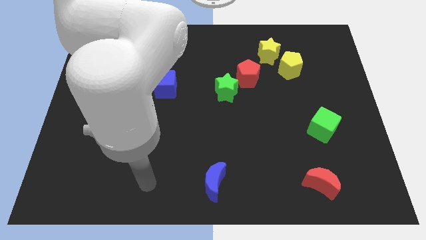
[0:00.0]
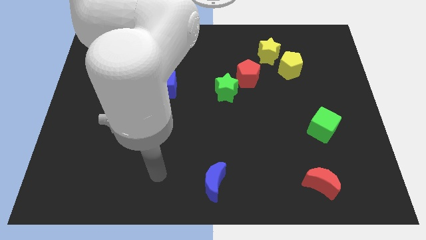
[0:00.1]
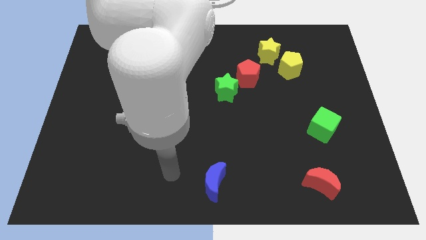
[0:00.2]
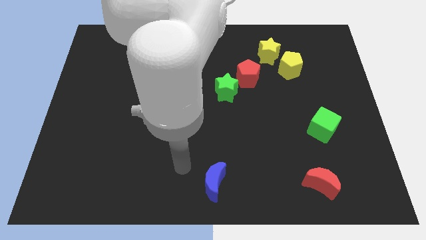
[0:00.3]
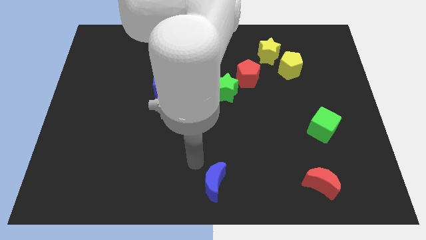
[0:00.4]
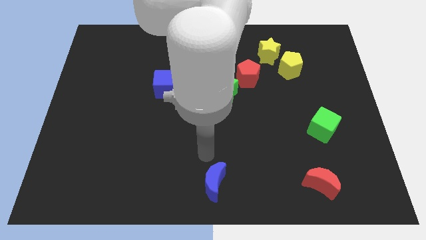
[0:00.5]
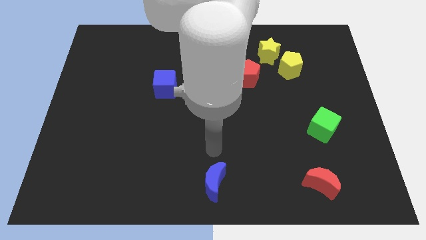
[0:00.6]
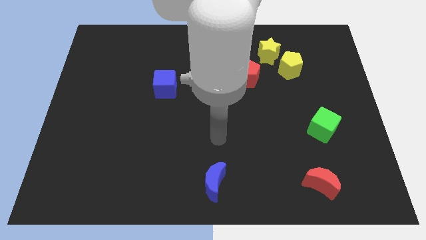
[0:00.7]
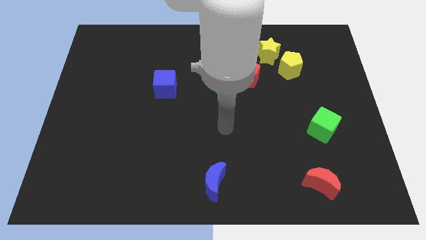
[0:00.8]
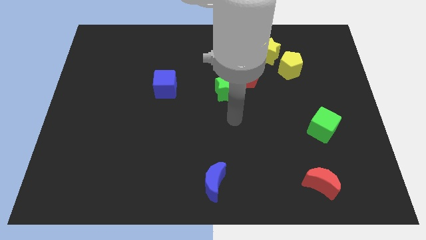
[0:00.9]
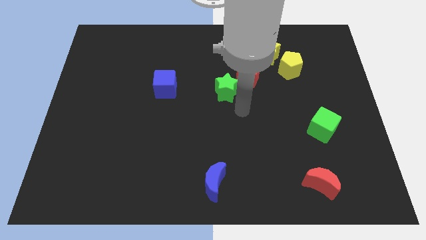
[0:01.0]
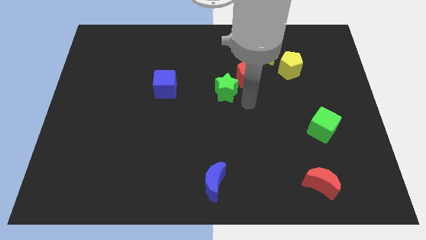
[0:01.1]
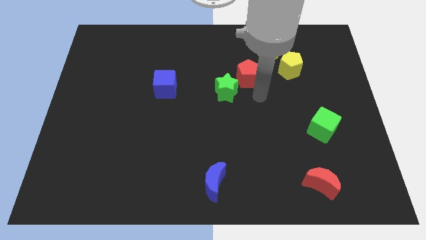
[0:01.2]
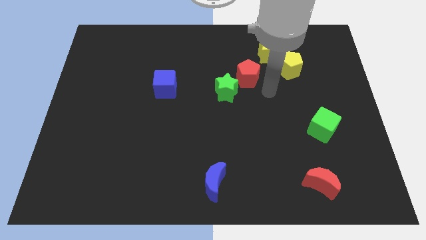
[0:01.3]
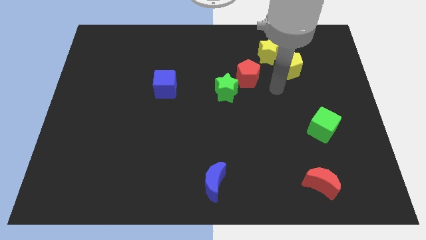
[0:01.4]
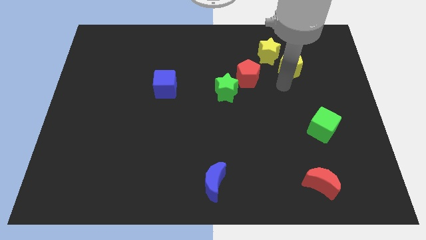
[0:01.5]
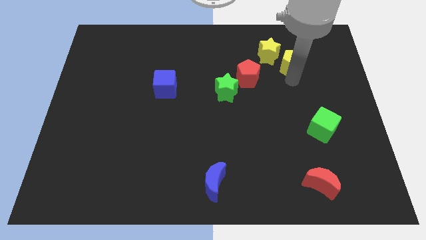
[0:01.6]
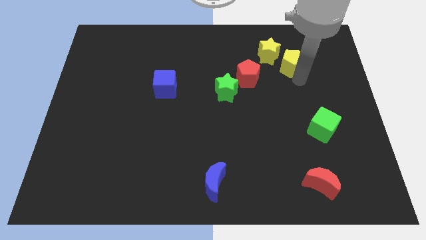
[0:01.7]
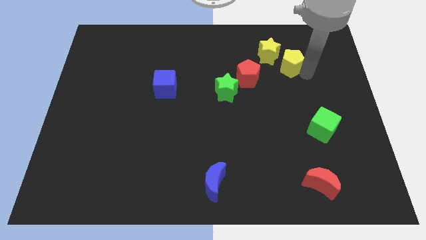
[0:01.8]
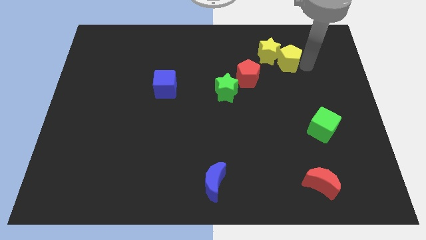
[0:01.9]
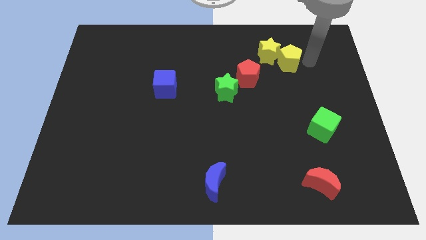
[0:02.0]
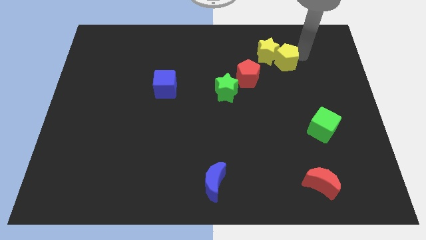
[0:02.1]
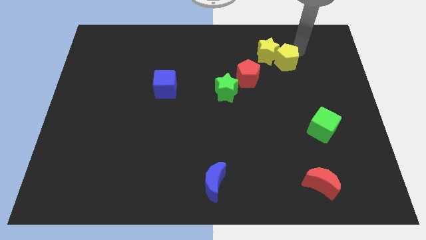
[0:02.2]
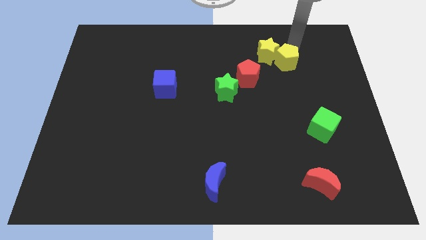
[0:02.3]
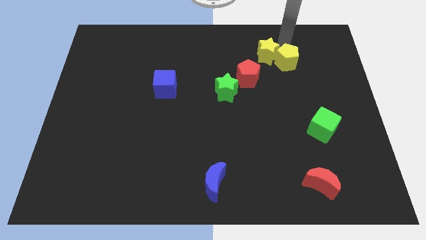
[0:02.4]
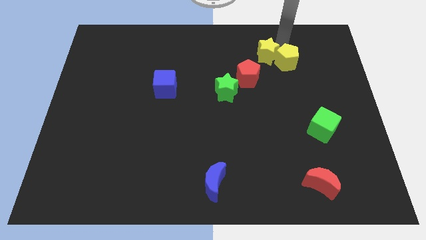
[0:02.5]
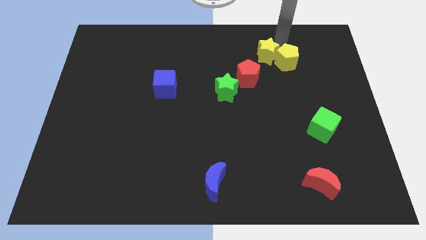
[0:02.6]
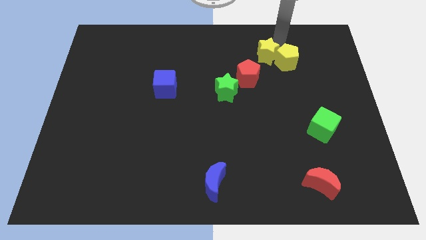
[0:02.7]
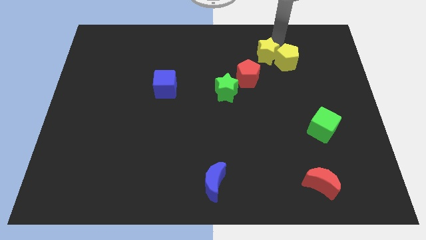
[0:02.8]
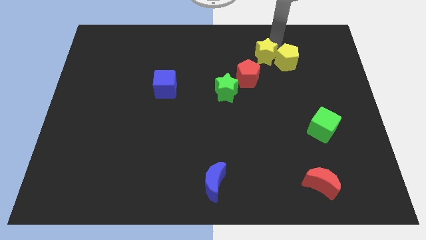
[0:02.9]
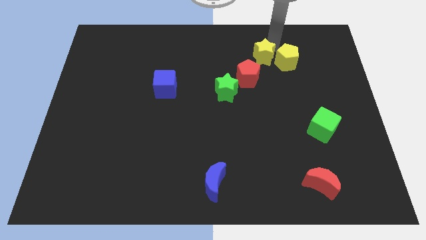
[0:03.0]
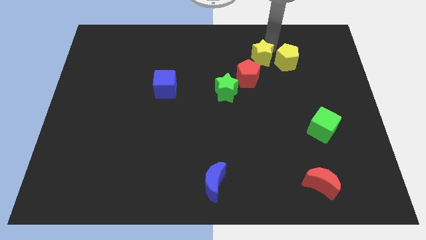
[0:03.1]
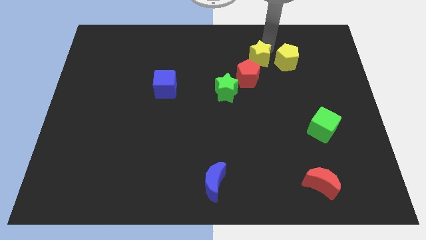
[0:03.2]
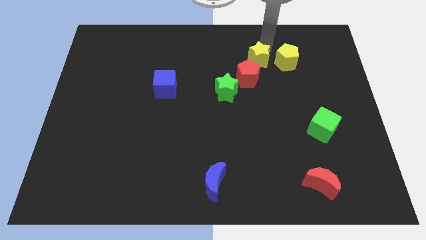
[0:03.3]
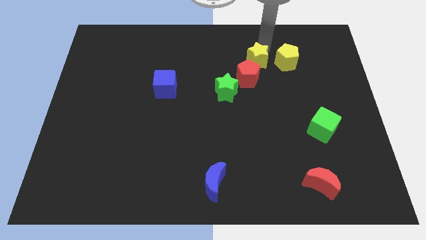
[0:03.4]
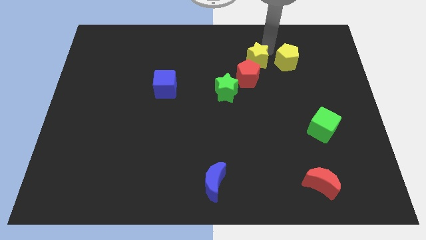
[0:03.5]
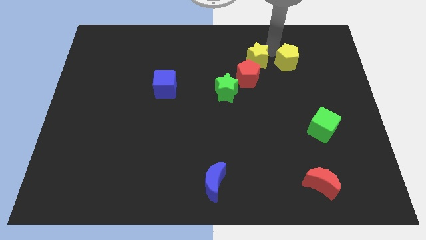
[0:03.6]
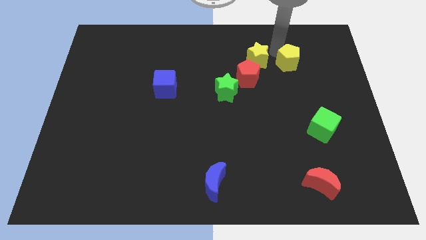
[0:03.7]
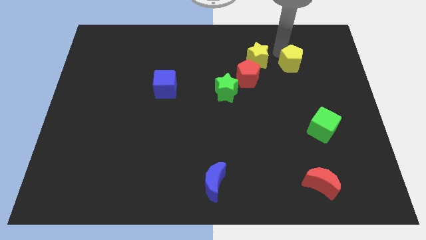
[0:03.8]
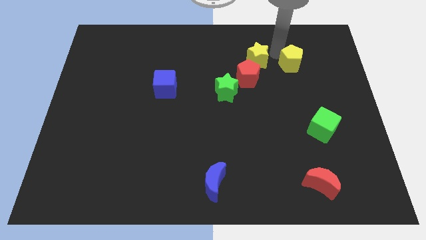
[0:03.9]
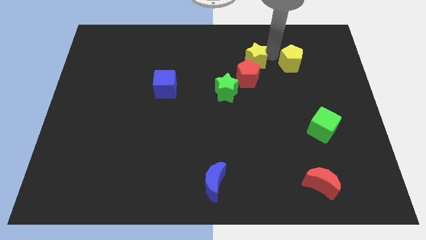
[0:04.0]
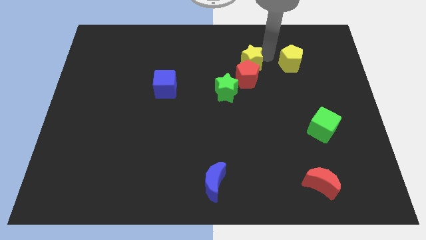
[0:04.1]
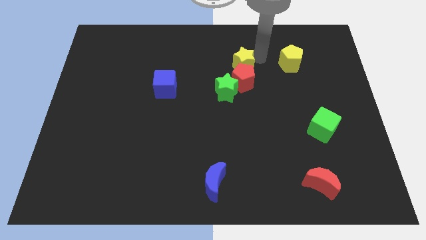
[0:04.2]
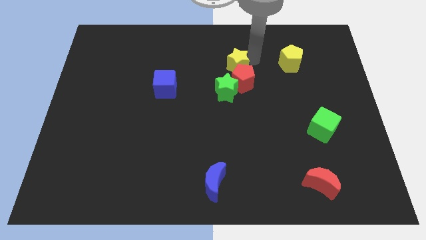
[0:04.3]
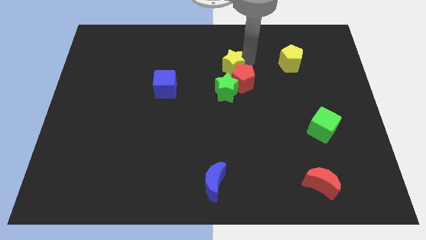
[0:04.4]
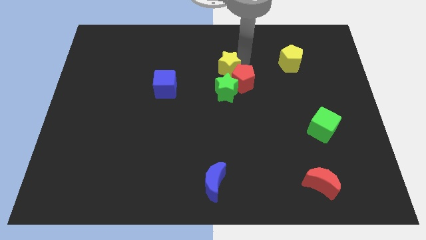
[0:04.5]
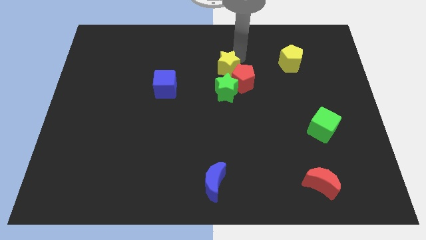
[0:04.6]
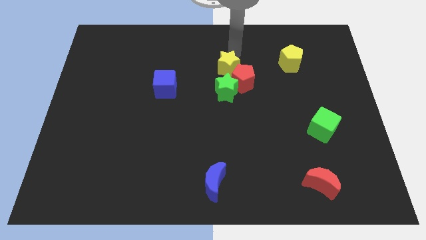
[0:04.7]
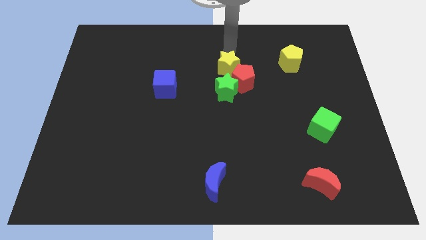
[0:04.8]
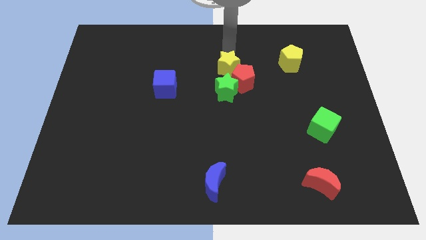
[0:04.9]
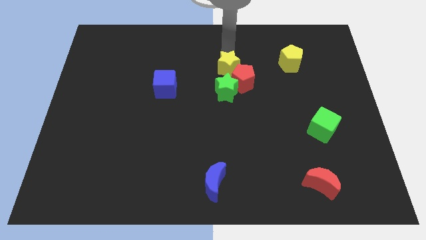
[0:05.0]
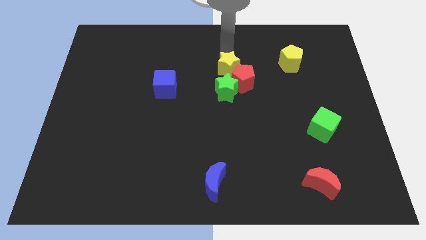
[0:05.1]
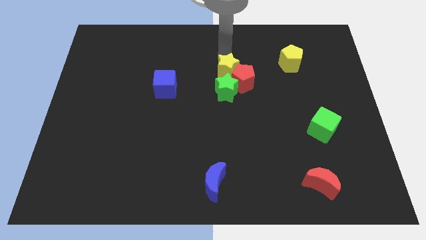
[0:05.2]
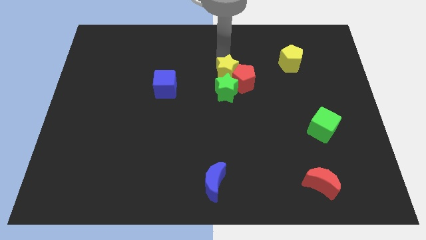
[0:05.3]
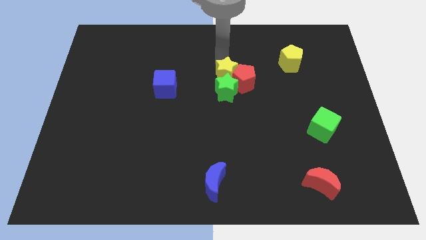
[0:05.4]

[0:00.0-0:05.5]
push the yellow star close to the green star

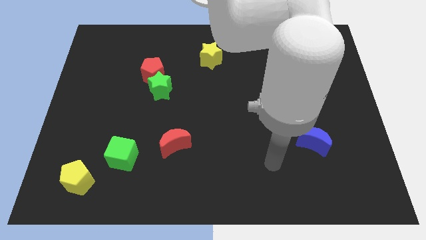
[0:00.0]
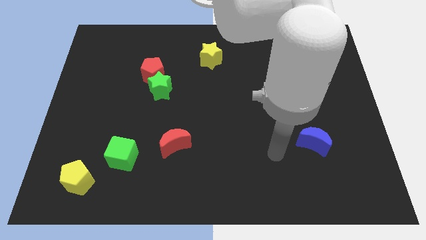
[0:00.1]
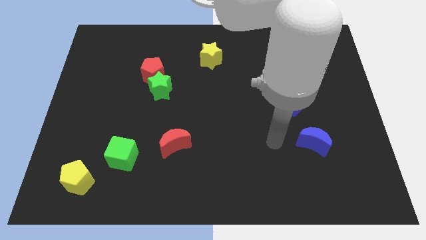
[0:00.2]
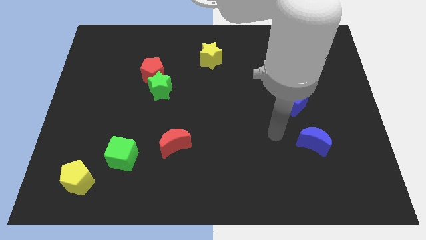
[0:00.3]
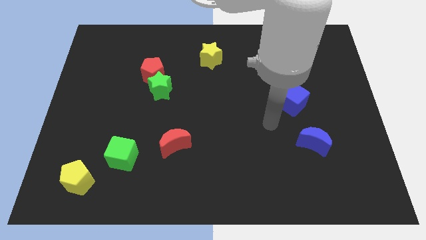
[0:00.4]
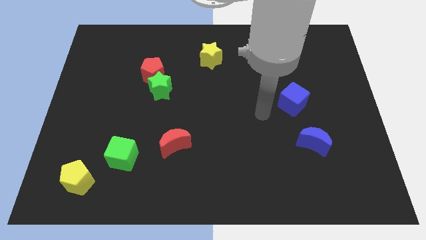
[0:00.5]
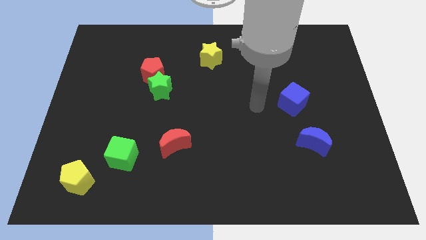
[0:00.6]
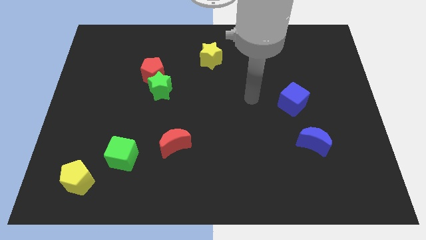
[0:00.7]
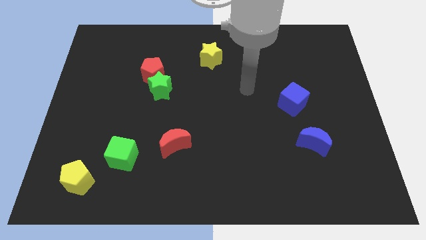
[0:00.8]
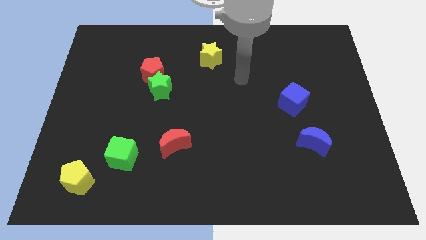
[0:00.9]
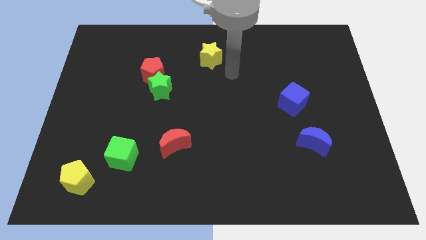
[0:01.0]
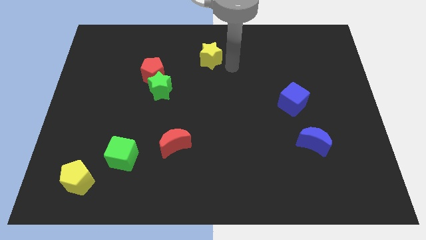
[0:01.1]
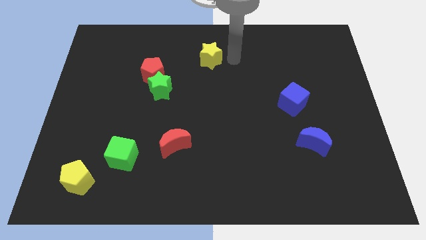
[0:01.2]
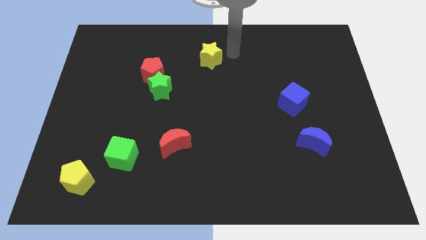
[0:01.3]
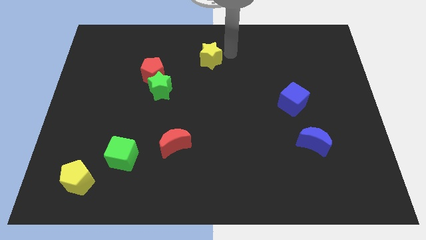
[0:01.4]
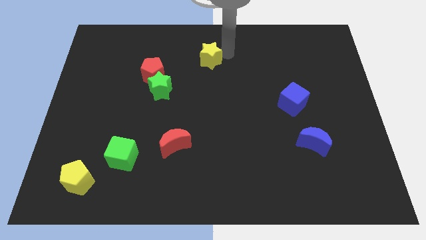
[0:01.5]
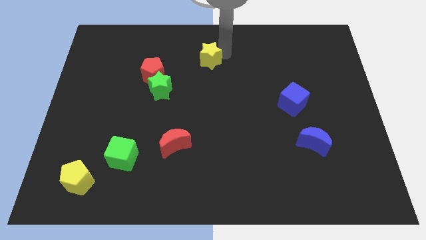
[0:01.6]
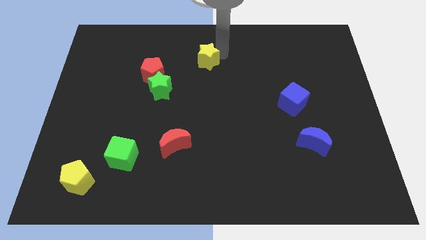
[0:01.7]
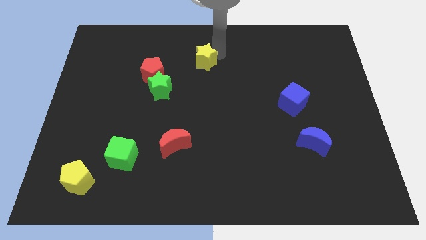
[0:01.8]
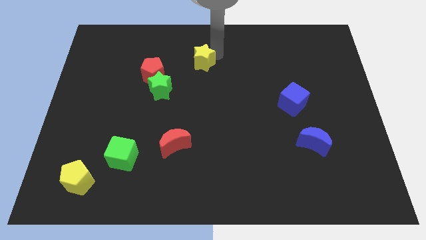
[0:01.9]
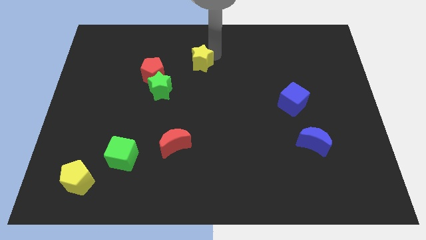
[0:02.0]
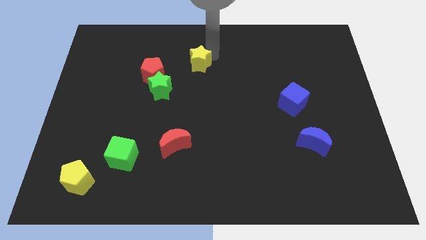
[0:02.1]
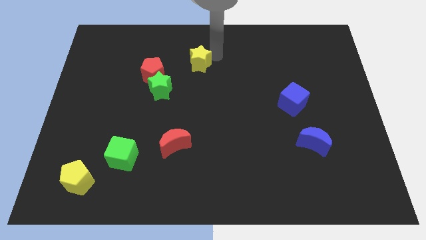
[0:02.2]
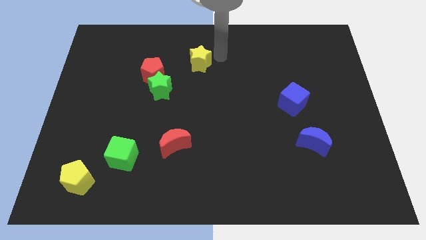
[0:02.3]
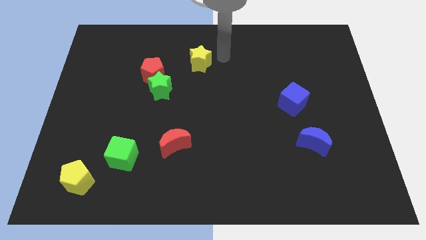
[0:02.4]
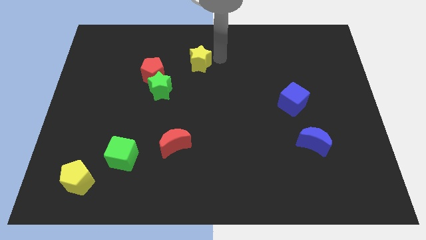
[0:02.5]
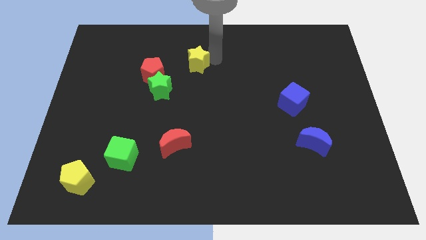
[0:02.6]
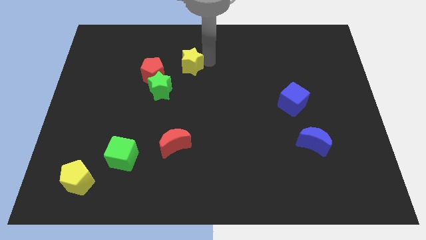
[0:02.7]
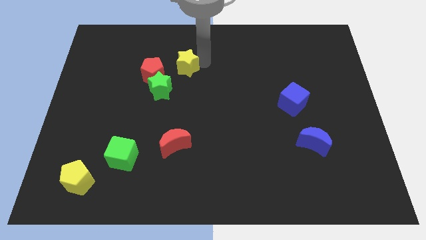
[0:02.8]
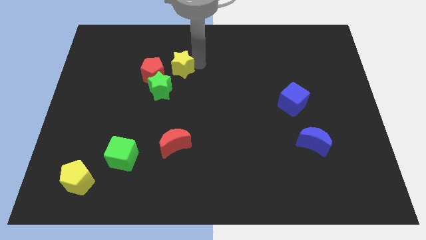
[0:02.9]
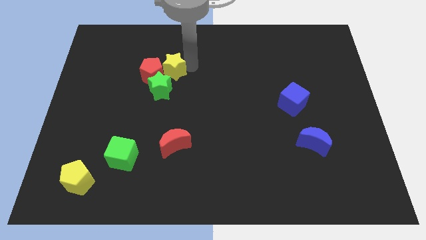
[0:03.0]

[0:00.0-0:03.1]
push the yellow star close to the red pentagon
